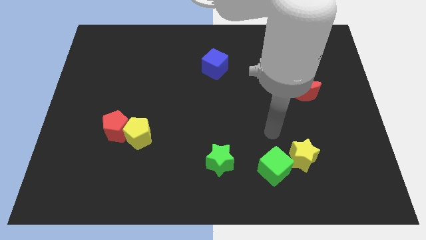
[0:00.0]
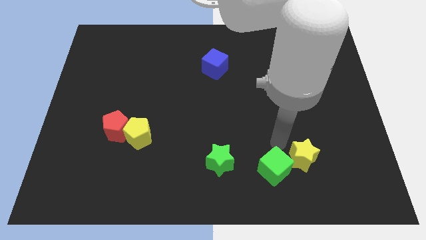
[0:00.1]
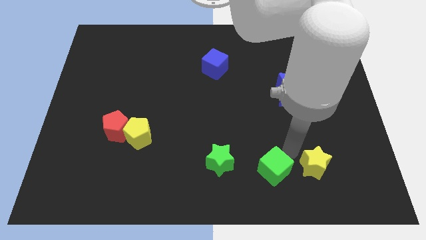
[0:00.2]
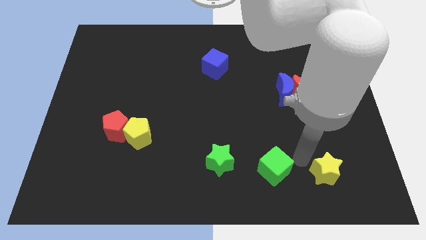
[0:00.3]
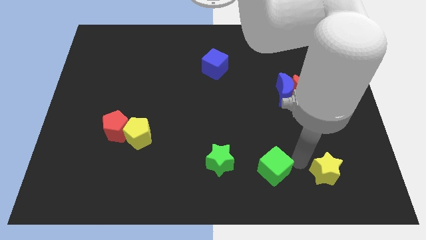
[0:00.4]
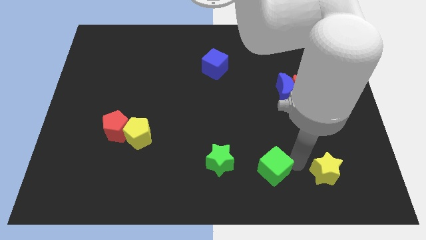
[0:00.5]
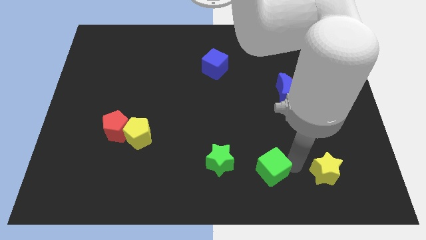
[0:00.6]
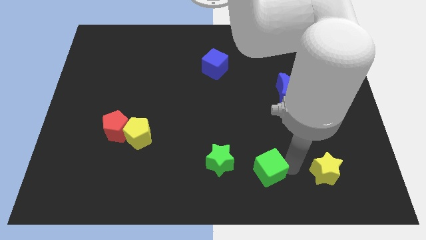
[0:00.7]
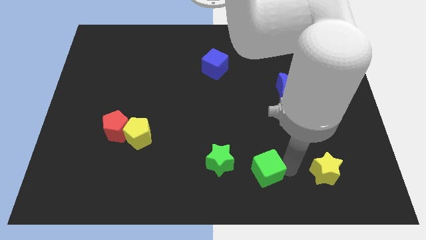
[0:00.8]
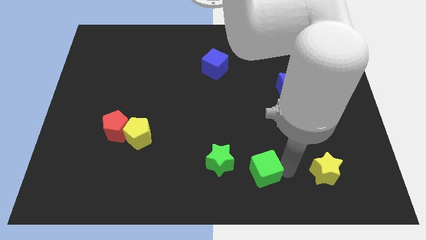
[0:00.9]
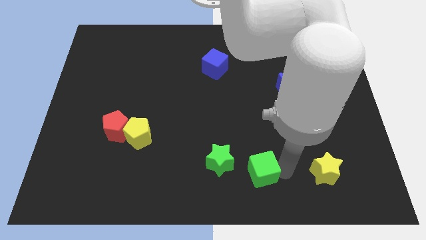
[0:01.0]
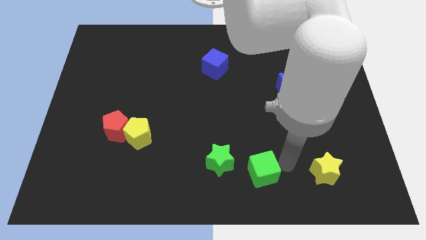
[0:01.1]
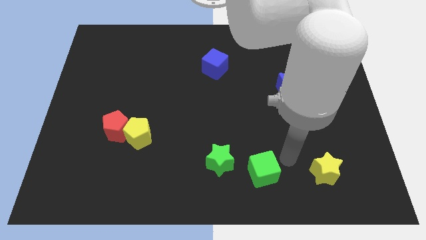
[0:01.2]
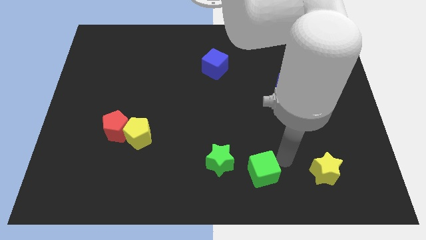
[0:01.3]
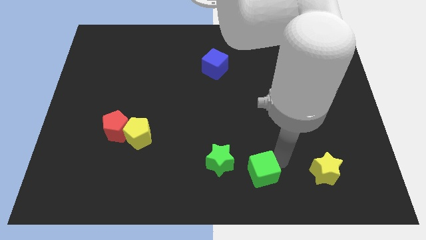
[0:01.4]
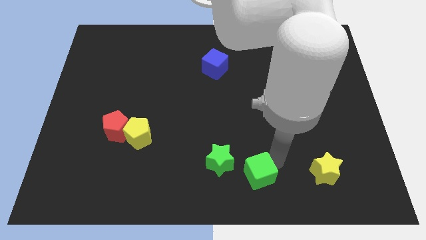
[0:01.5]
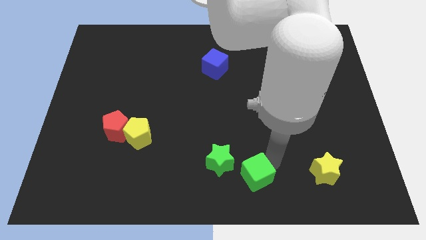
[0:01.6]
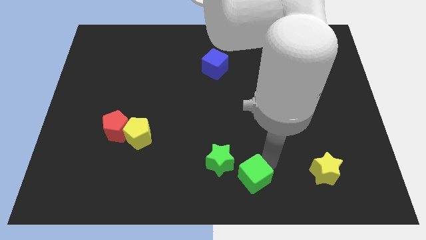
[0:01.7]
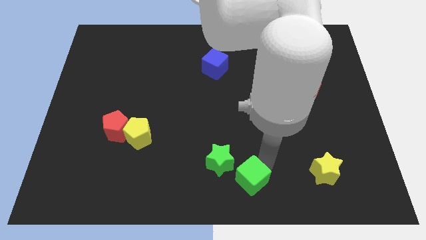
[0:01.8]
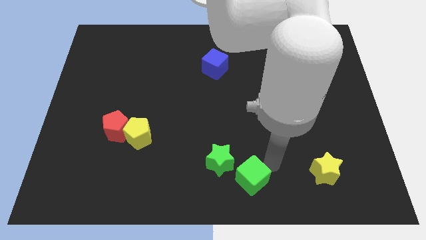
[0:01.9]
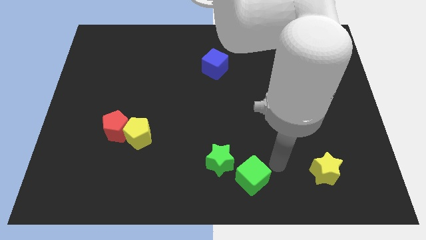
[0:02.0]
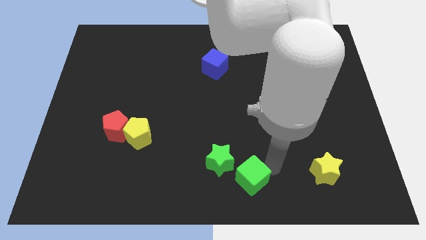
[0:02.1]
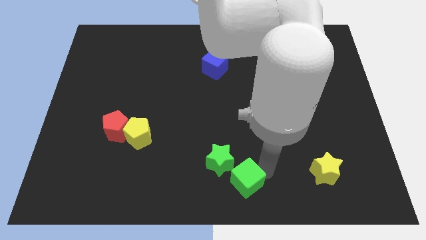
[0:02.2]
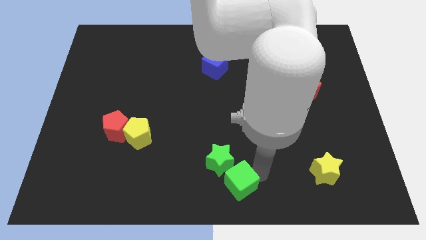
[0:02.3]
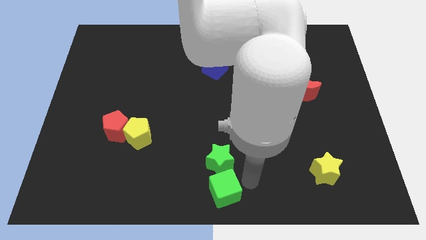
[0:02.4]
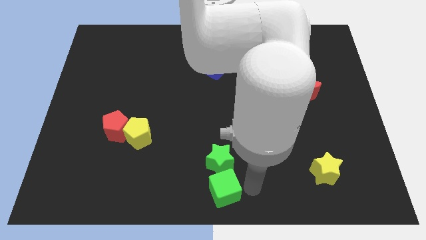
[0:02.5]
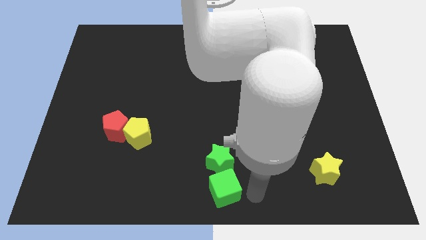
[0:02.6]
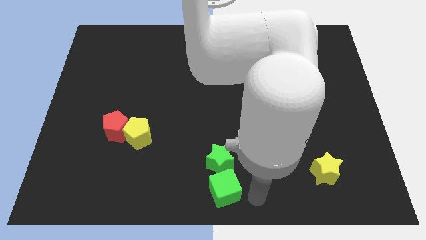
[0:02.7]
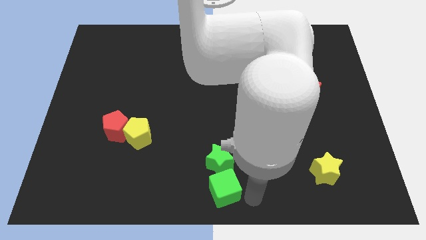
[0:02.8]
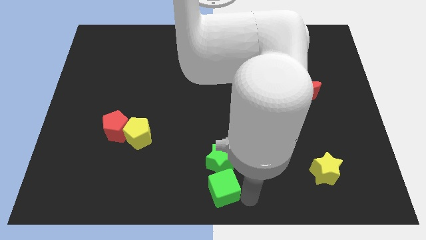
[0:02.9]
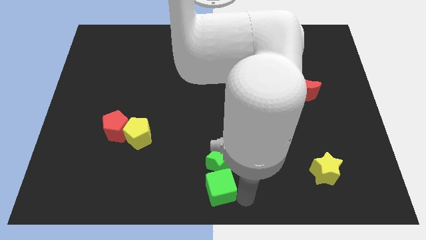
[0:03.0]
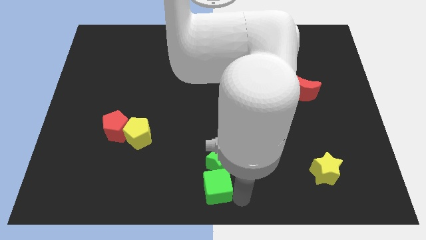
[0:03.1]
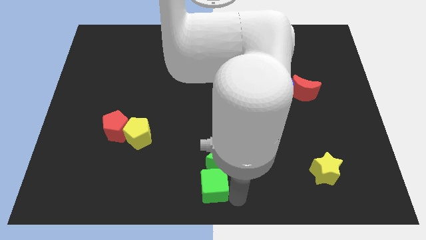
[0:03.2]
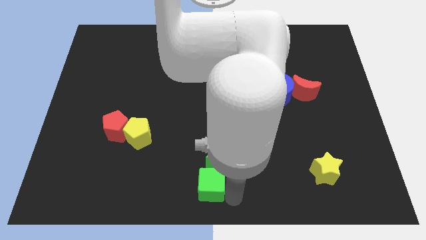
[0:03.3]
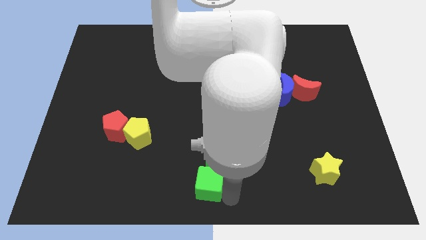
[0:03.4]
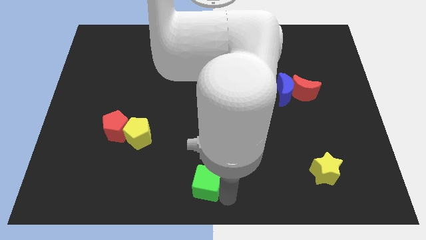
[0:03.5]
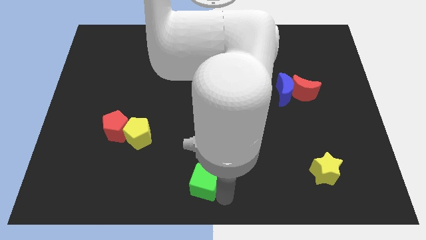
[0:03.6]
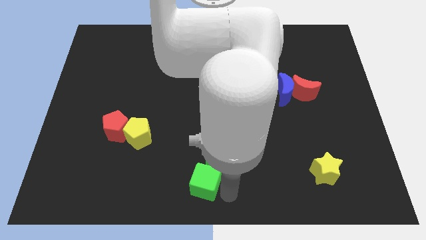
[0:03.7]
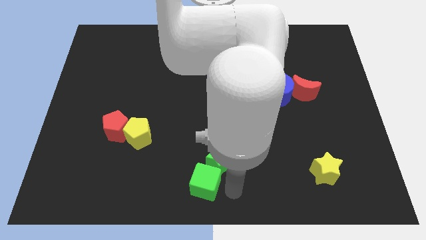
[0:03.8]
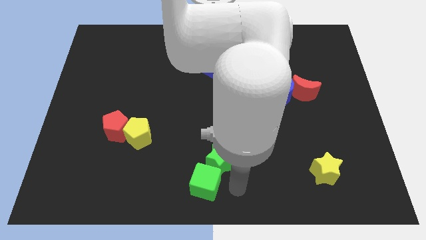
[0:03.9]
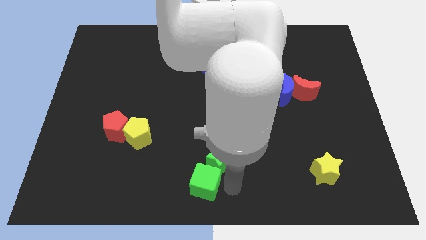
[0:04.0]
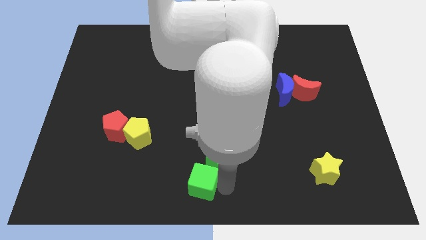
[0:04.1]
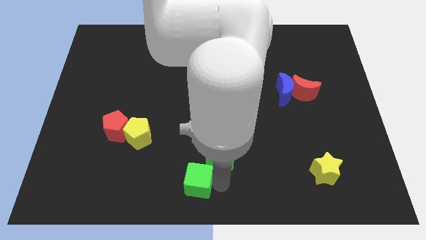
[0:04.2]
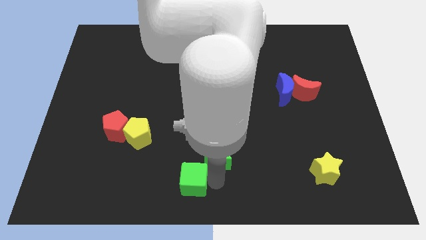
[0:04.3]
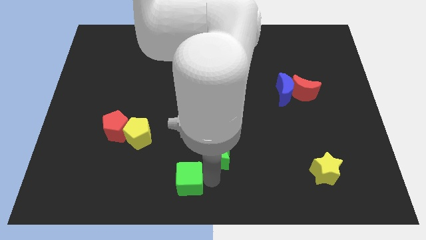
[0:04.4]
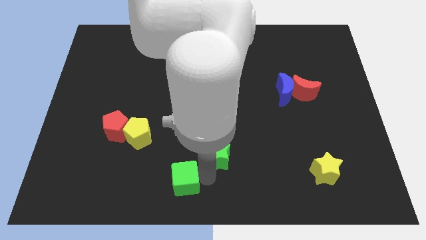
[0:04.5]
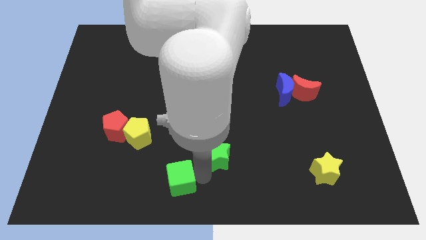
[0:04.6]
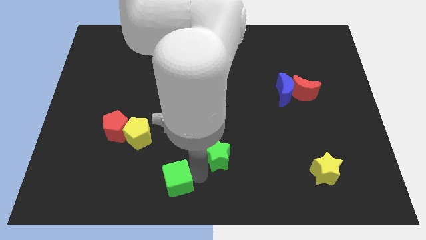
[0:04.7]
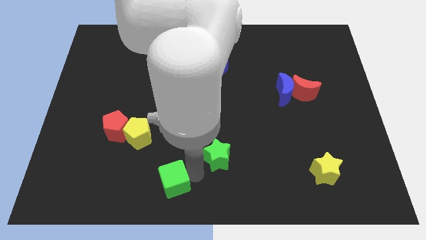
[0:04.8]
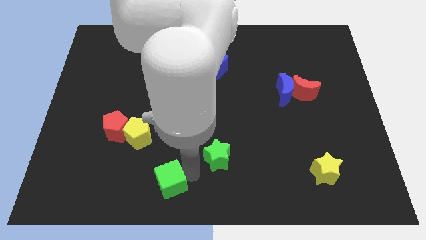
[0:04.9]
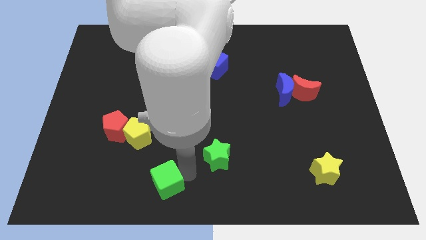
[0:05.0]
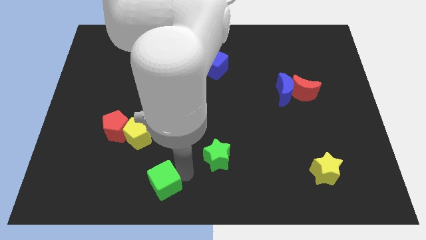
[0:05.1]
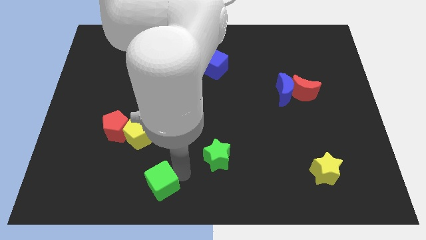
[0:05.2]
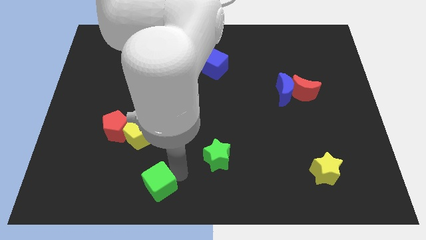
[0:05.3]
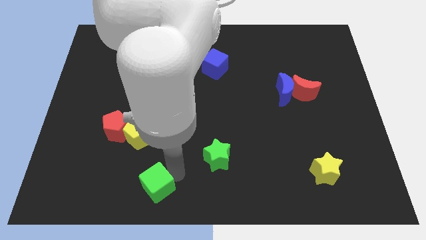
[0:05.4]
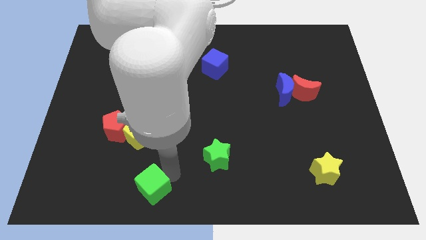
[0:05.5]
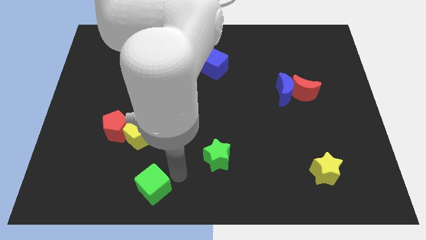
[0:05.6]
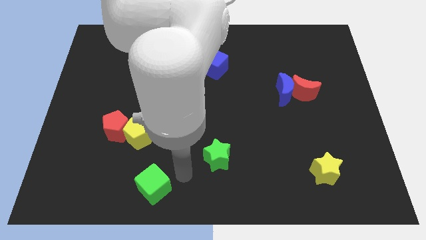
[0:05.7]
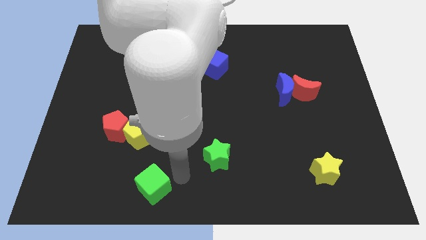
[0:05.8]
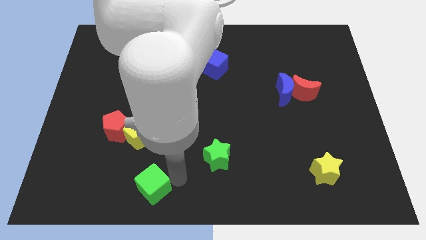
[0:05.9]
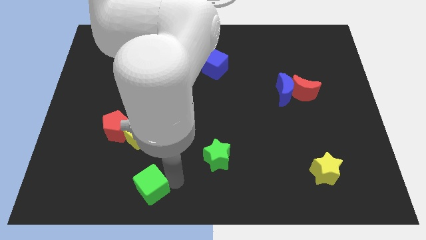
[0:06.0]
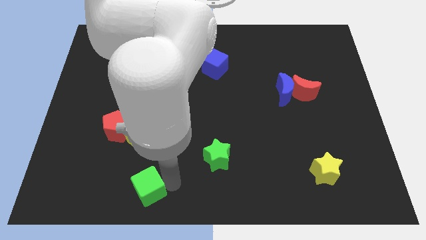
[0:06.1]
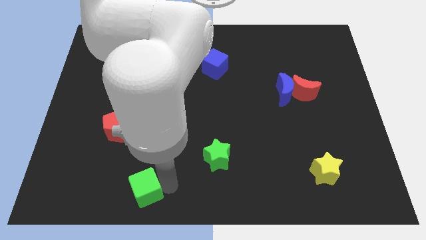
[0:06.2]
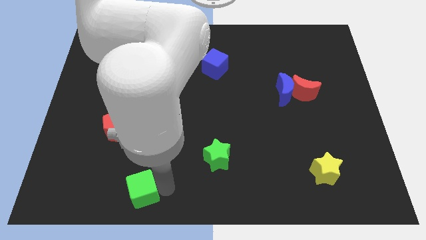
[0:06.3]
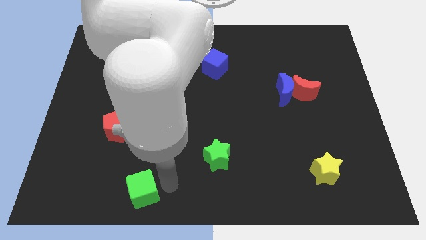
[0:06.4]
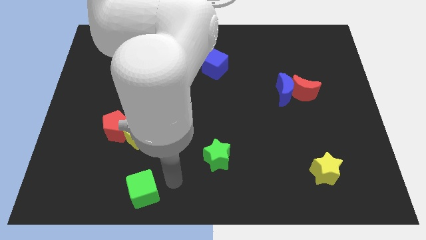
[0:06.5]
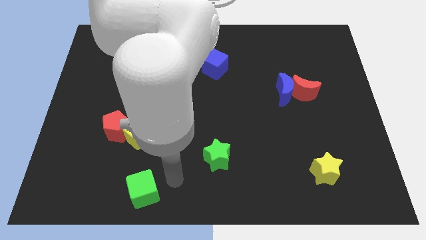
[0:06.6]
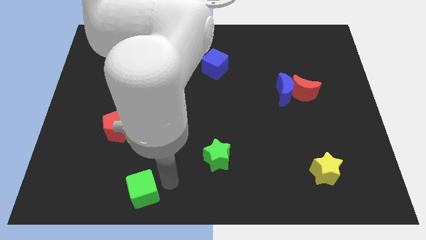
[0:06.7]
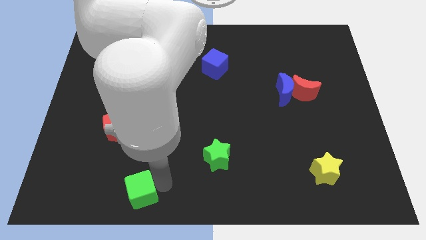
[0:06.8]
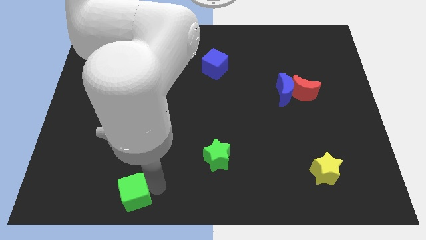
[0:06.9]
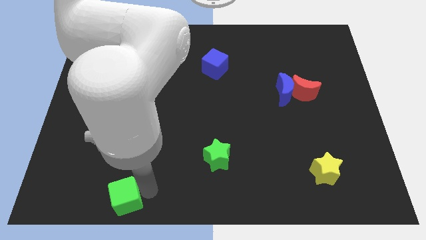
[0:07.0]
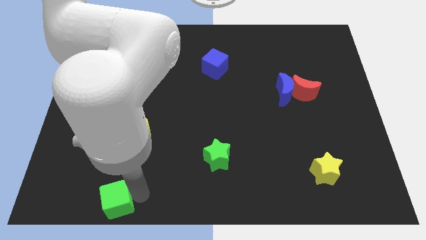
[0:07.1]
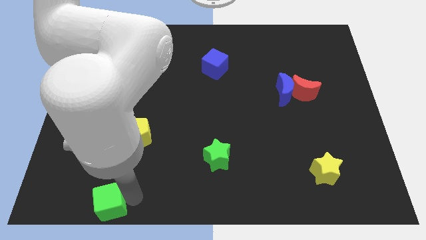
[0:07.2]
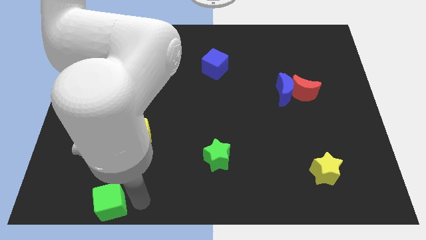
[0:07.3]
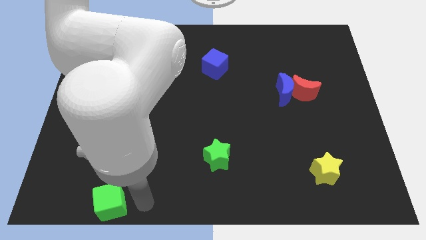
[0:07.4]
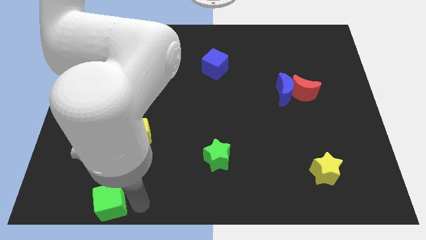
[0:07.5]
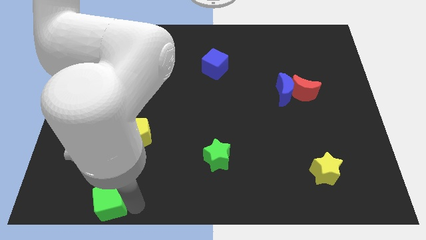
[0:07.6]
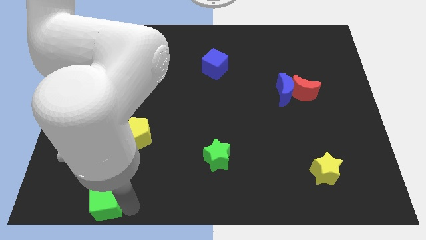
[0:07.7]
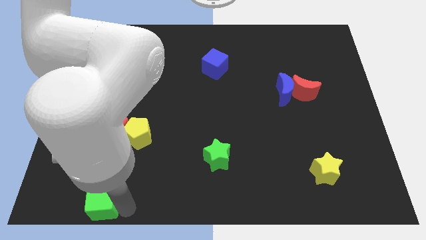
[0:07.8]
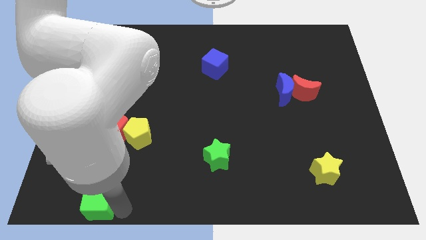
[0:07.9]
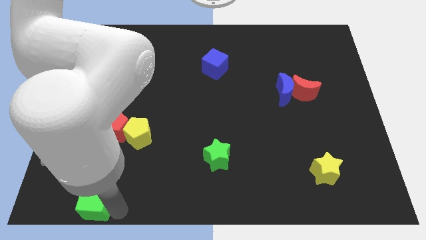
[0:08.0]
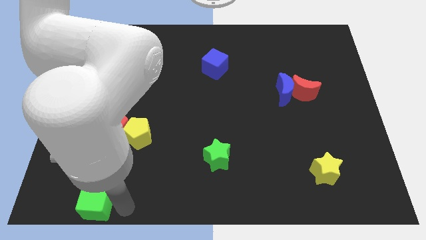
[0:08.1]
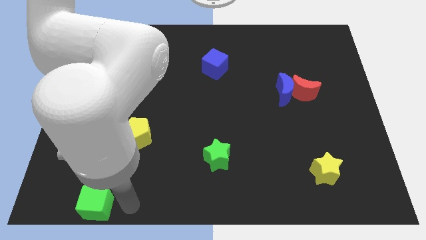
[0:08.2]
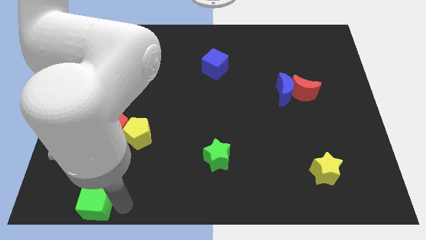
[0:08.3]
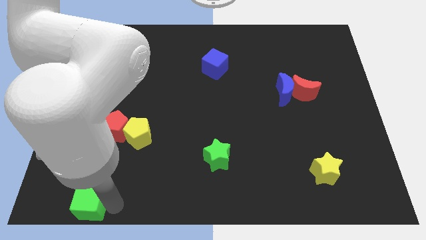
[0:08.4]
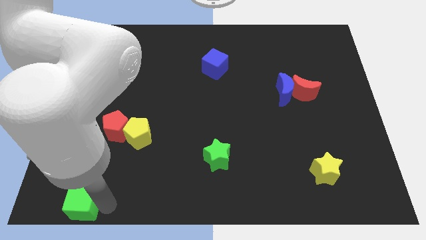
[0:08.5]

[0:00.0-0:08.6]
slide the green cube to the bottom left of the board
